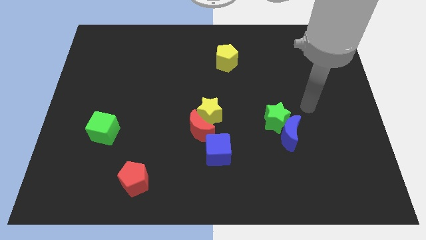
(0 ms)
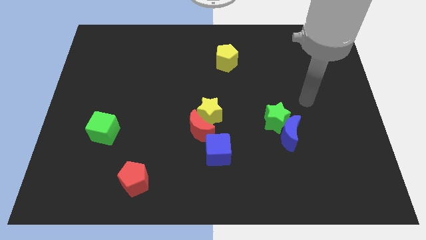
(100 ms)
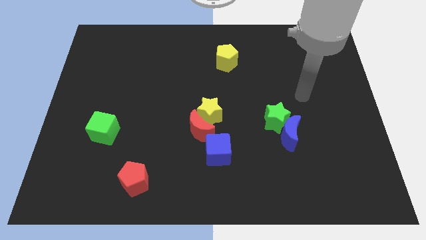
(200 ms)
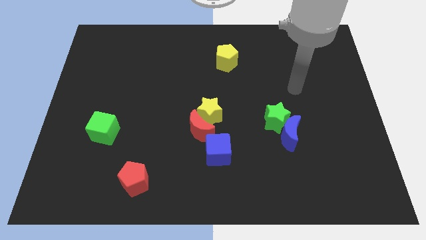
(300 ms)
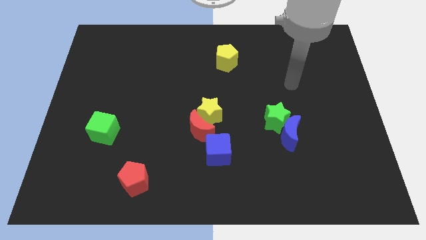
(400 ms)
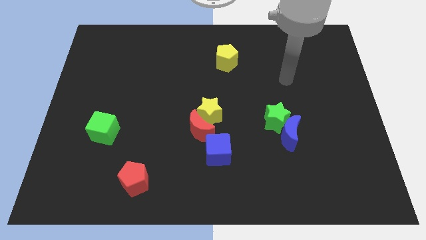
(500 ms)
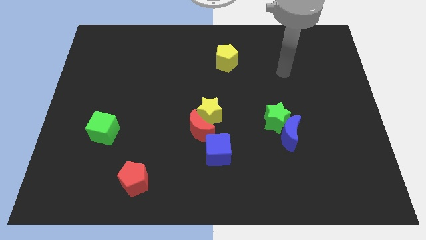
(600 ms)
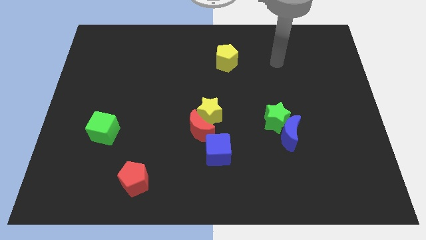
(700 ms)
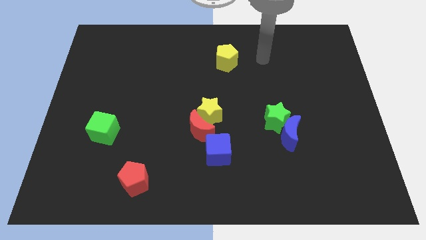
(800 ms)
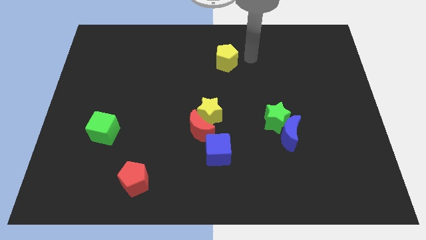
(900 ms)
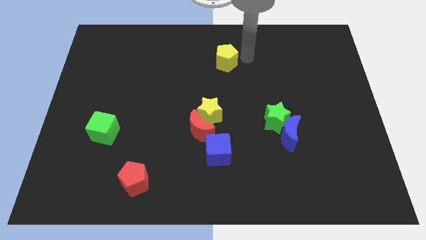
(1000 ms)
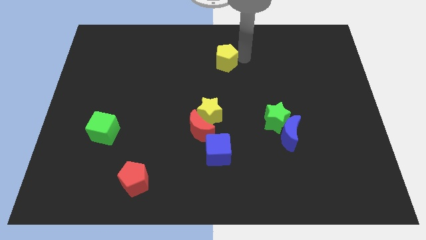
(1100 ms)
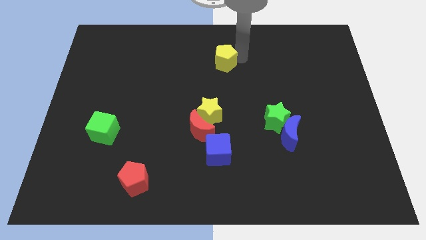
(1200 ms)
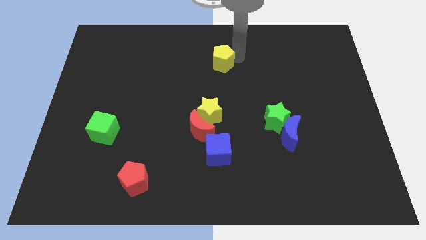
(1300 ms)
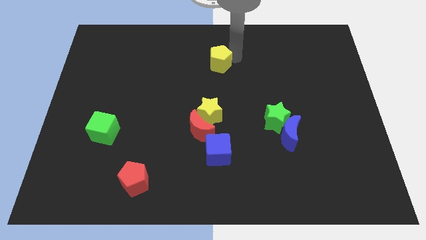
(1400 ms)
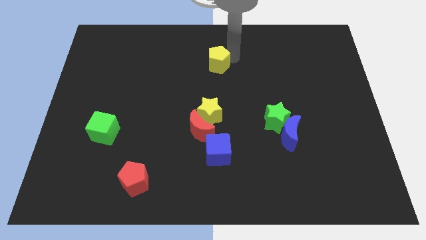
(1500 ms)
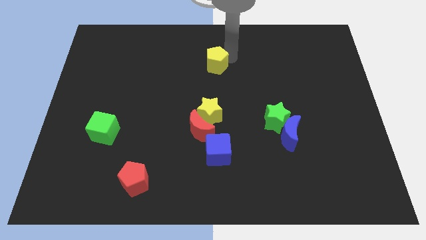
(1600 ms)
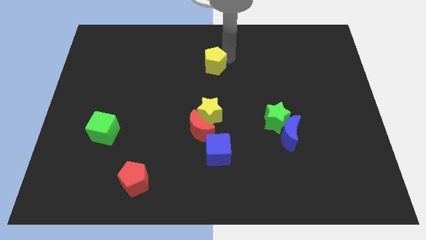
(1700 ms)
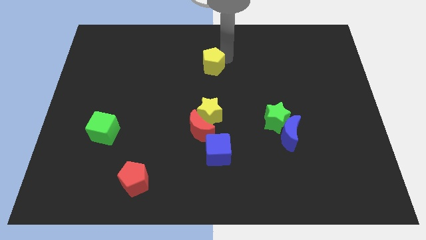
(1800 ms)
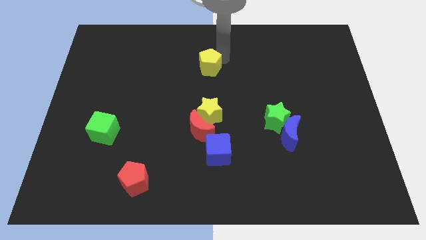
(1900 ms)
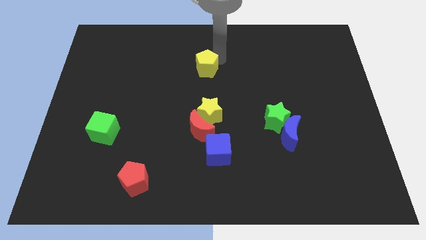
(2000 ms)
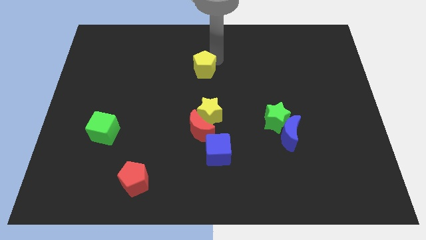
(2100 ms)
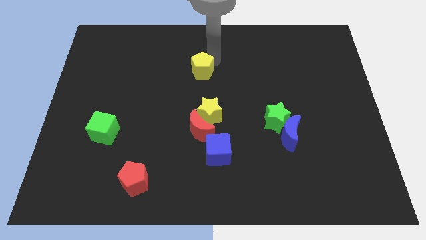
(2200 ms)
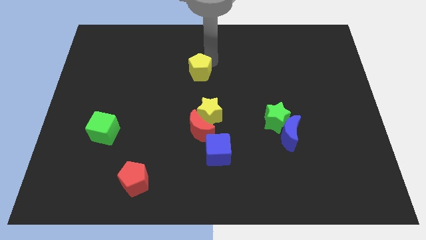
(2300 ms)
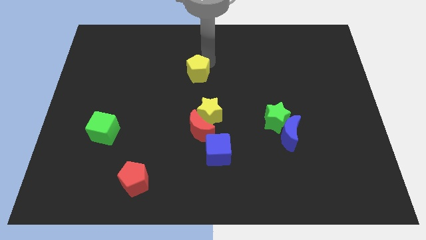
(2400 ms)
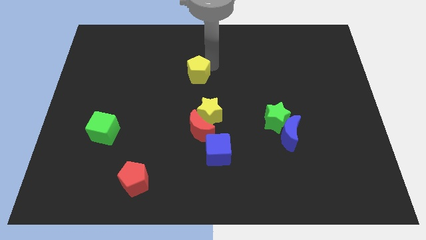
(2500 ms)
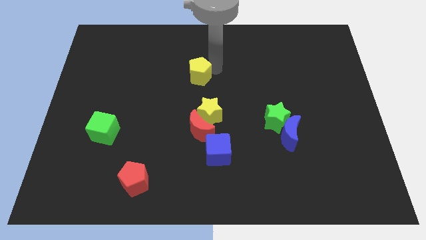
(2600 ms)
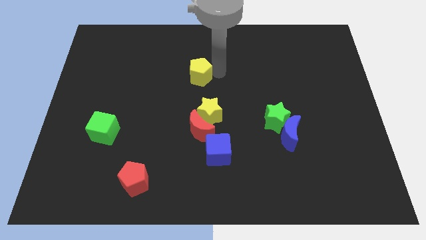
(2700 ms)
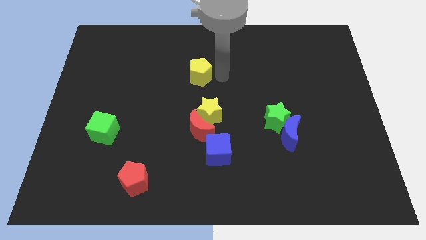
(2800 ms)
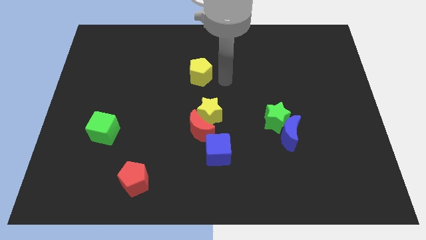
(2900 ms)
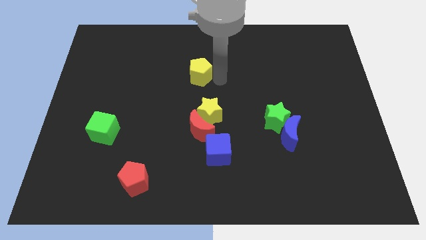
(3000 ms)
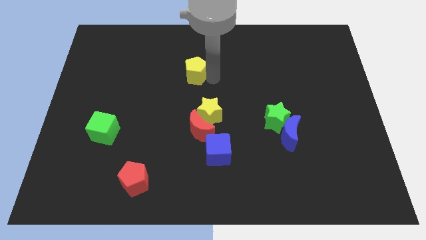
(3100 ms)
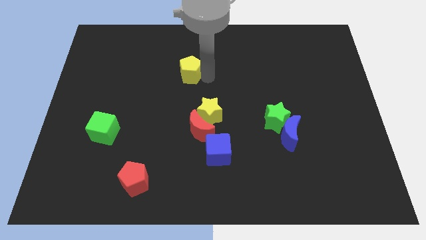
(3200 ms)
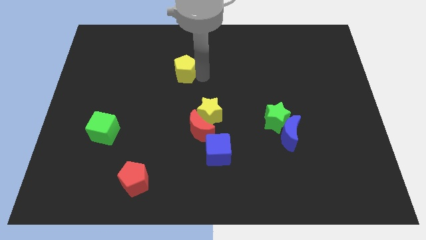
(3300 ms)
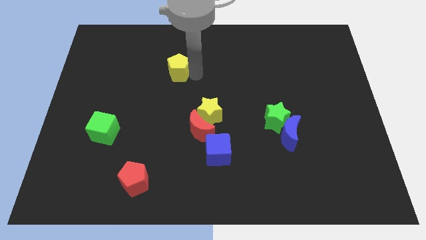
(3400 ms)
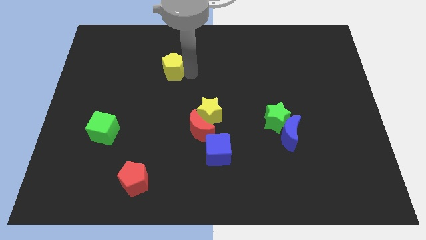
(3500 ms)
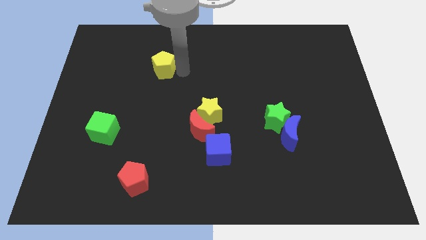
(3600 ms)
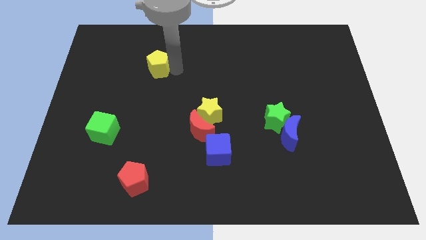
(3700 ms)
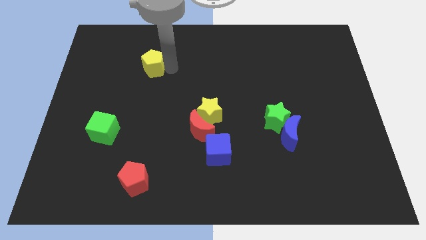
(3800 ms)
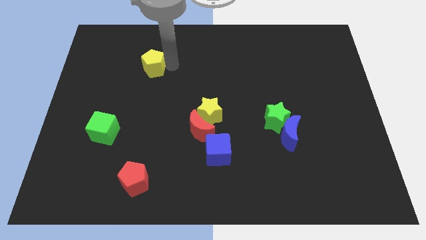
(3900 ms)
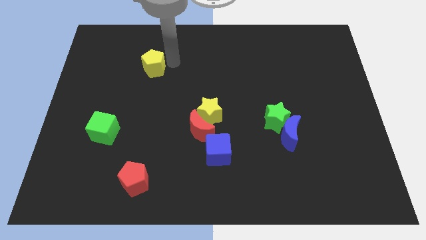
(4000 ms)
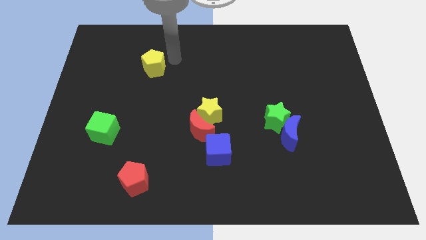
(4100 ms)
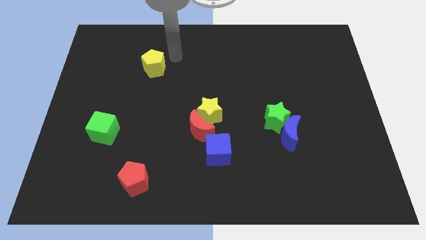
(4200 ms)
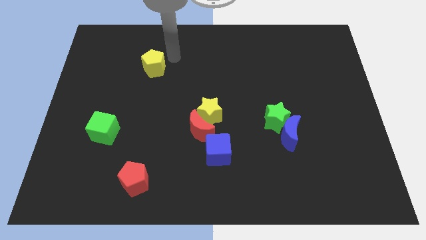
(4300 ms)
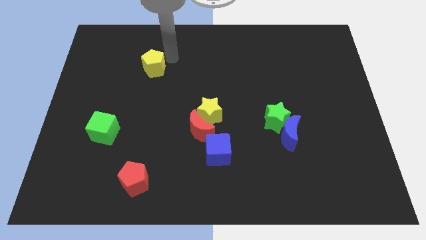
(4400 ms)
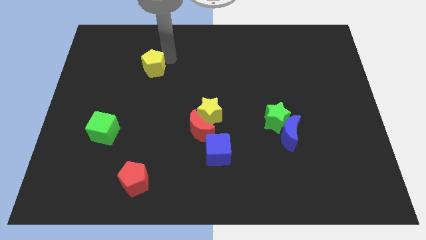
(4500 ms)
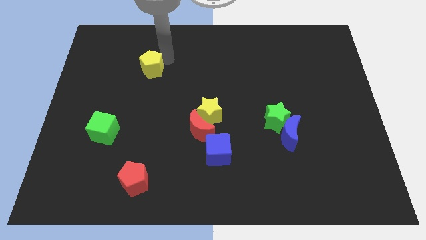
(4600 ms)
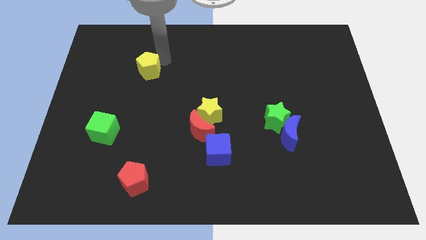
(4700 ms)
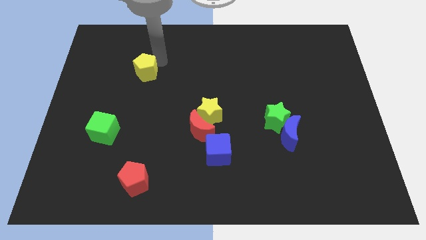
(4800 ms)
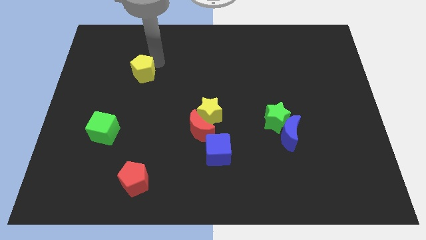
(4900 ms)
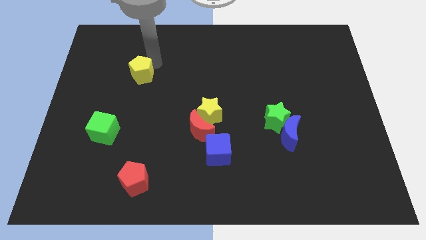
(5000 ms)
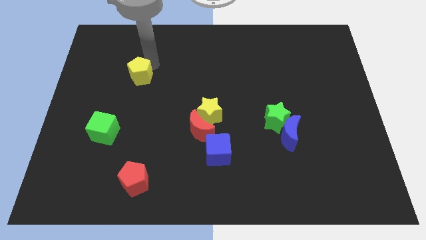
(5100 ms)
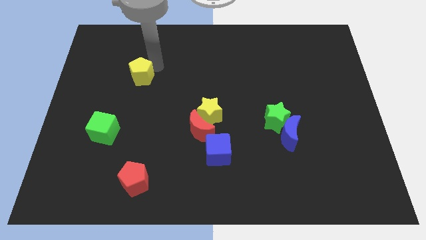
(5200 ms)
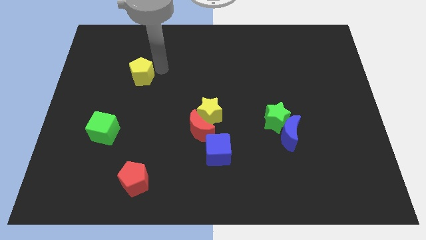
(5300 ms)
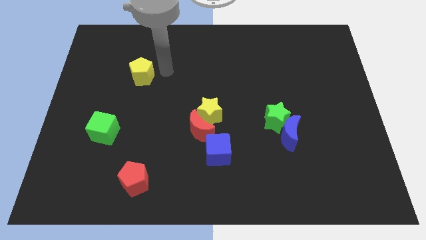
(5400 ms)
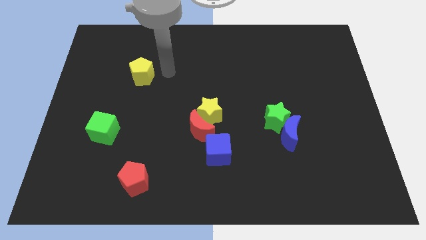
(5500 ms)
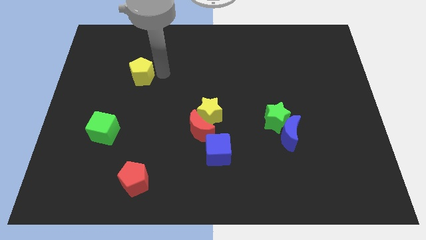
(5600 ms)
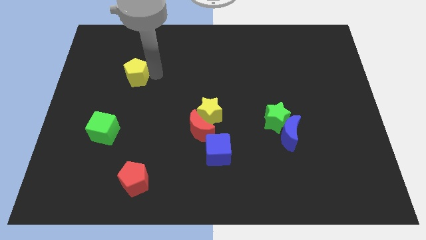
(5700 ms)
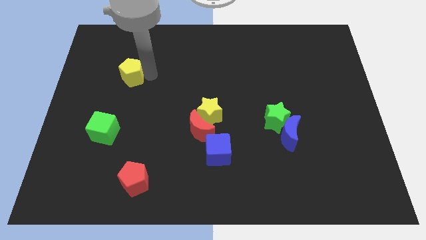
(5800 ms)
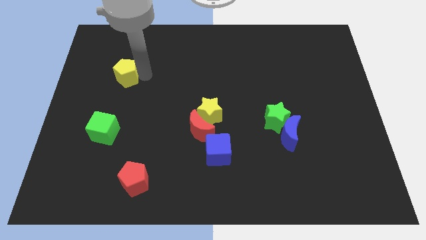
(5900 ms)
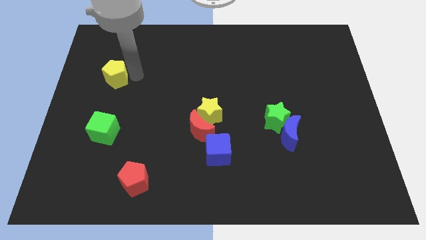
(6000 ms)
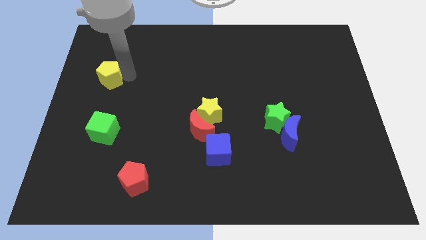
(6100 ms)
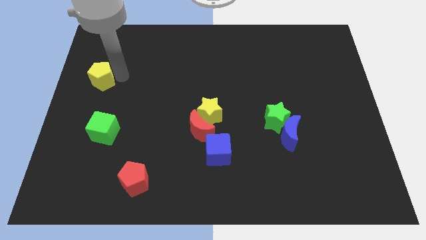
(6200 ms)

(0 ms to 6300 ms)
put the yellow pentagon to the left side of the board
